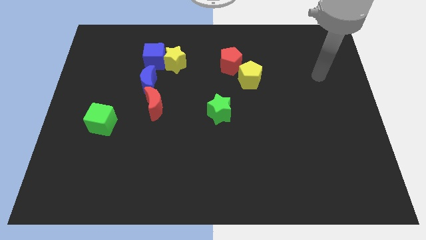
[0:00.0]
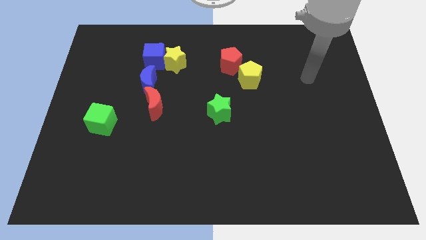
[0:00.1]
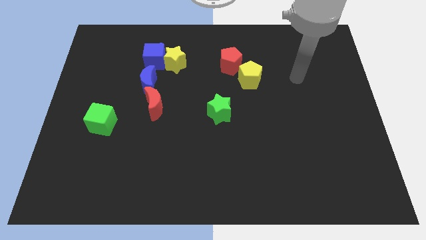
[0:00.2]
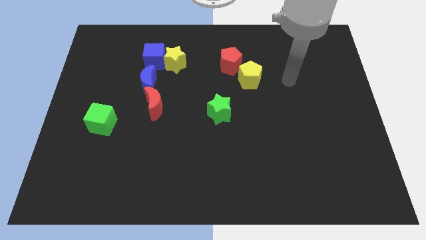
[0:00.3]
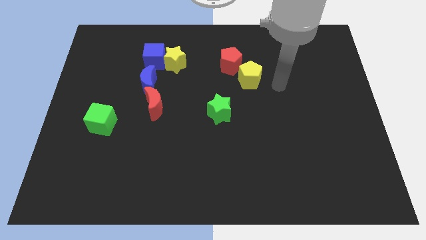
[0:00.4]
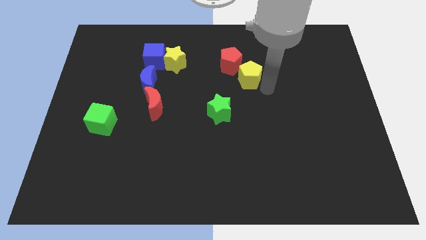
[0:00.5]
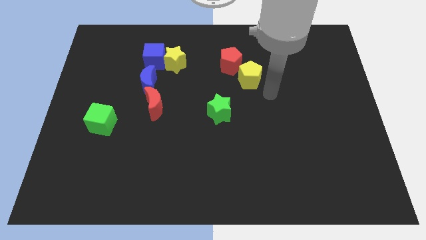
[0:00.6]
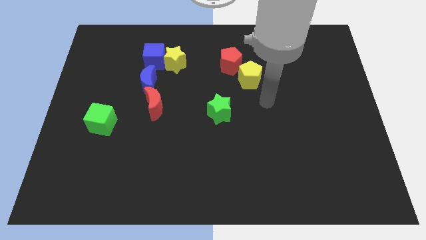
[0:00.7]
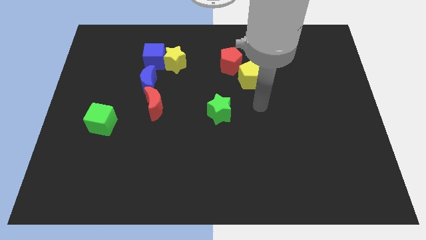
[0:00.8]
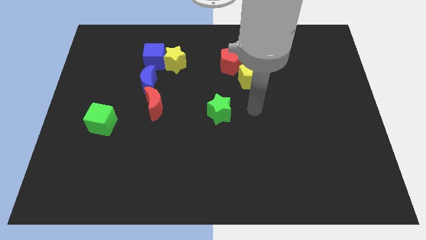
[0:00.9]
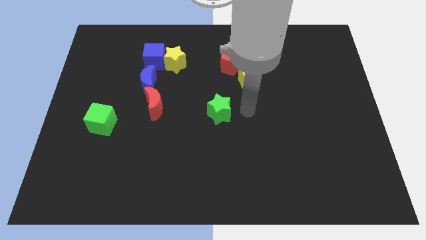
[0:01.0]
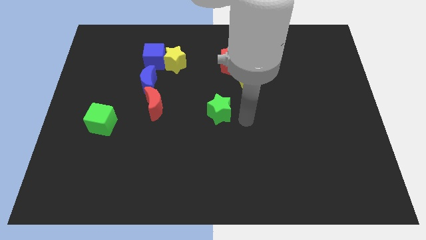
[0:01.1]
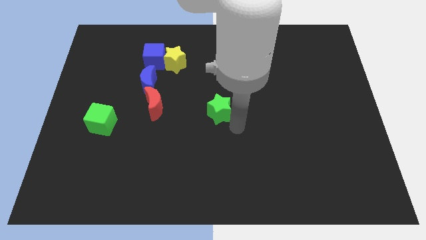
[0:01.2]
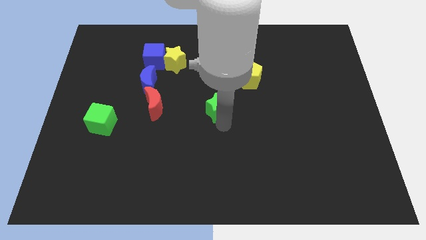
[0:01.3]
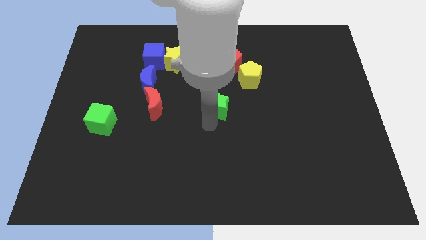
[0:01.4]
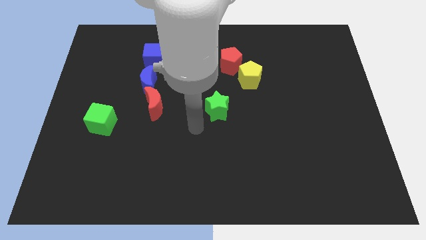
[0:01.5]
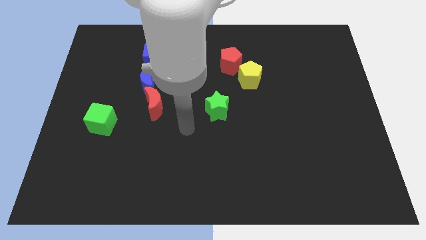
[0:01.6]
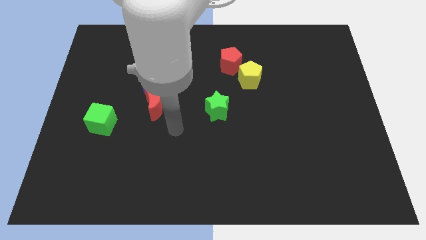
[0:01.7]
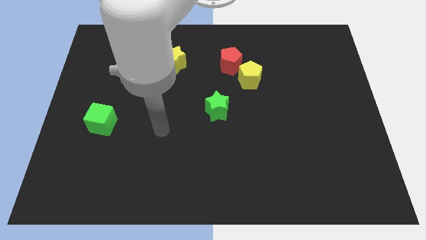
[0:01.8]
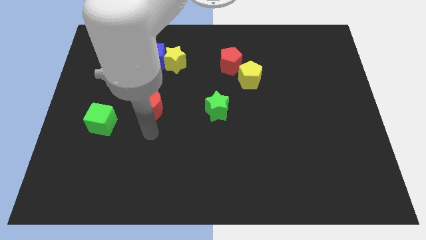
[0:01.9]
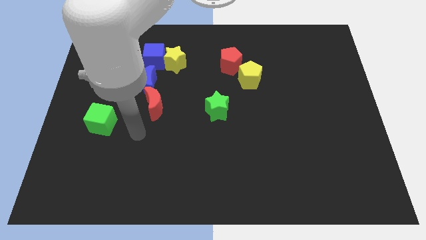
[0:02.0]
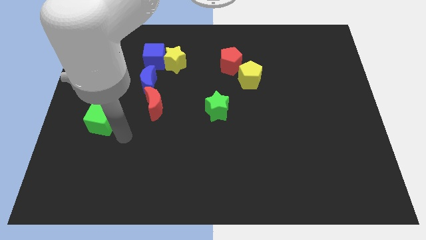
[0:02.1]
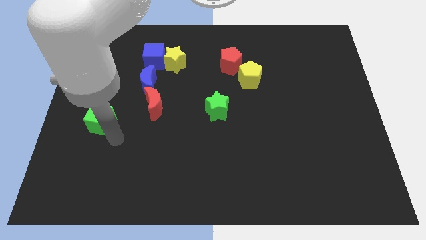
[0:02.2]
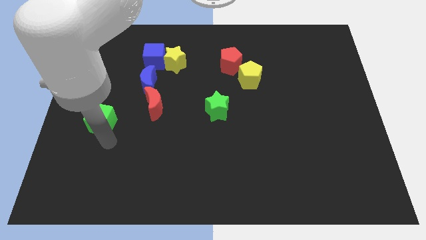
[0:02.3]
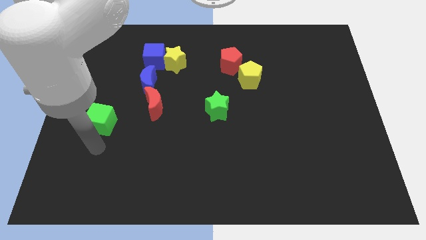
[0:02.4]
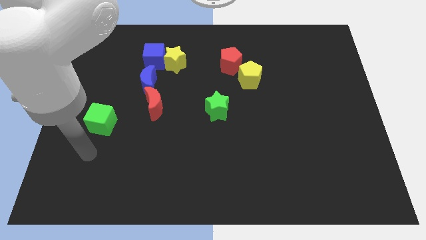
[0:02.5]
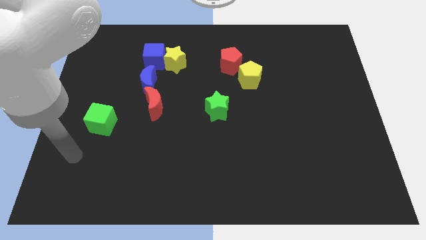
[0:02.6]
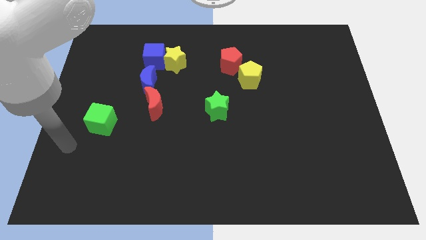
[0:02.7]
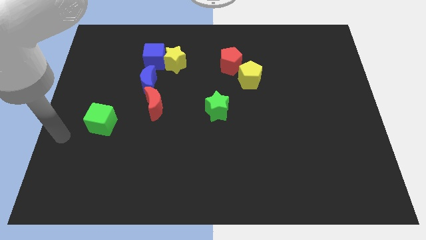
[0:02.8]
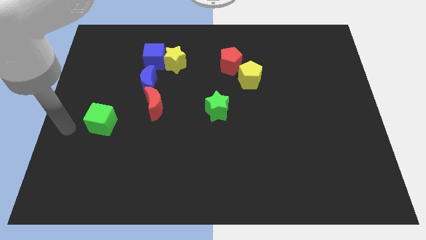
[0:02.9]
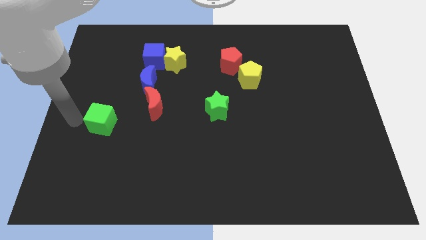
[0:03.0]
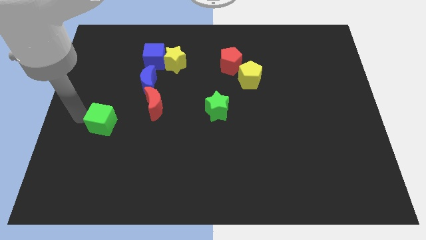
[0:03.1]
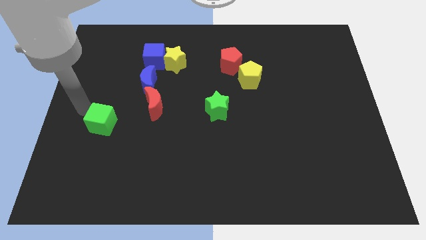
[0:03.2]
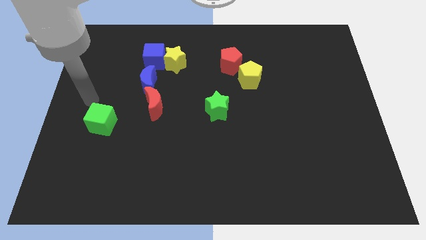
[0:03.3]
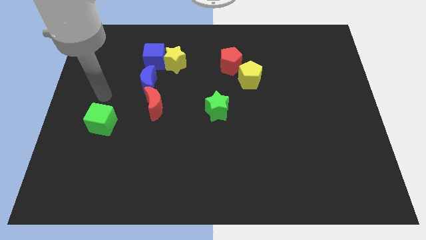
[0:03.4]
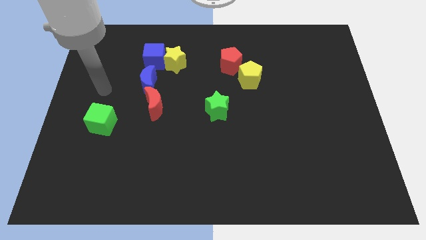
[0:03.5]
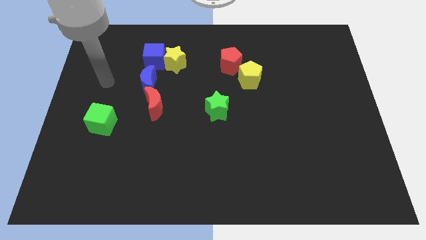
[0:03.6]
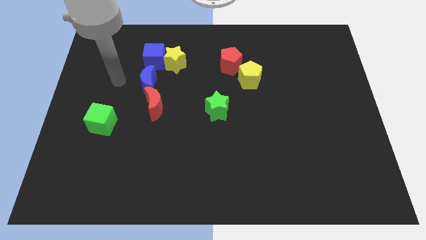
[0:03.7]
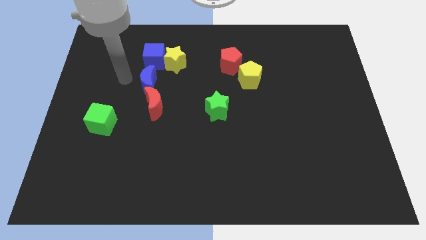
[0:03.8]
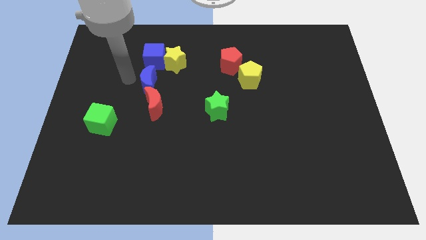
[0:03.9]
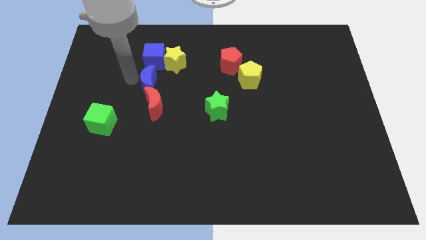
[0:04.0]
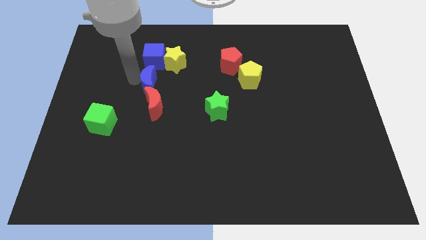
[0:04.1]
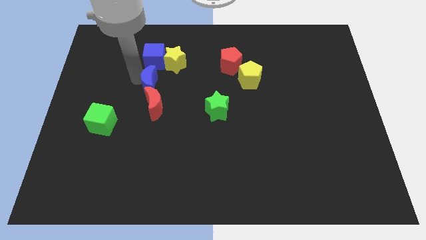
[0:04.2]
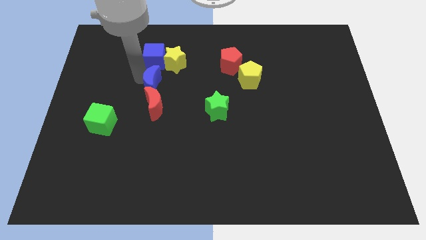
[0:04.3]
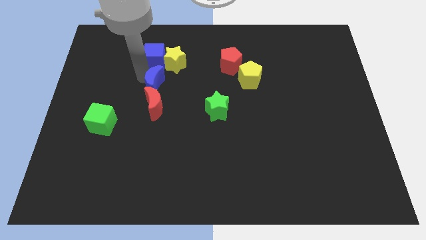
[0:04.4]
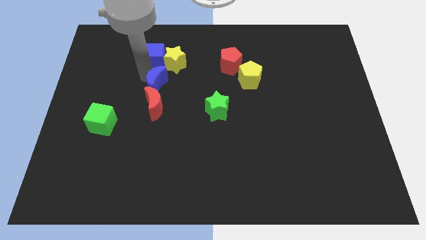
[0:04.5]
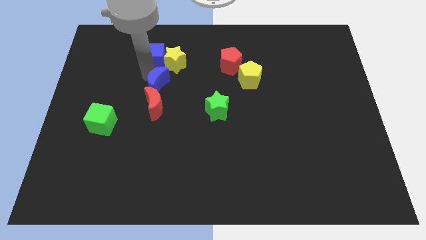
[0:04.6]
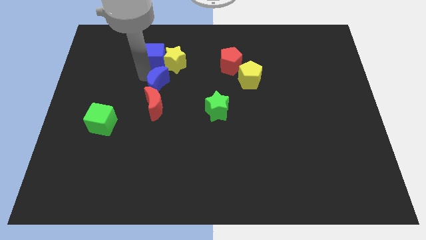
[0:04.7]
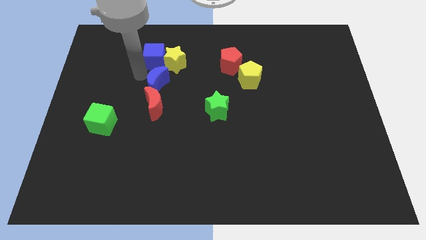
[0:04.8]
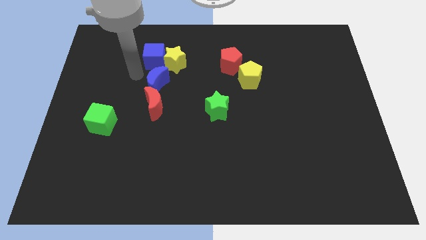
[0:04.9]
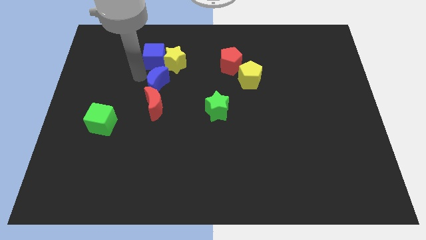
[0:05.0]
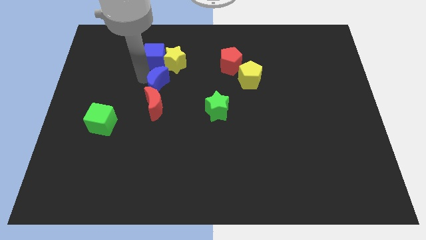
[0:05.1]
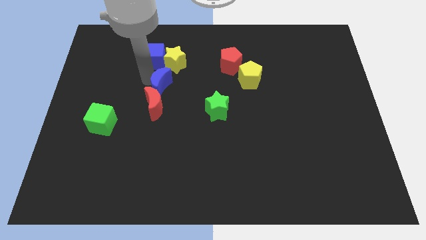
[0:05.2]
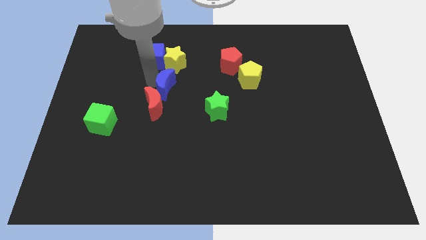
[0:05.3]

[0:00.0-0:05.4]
put the blue moon to the middle

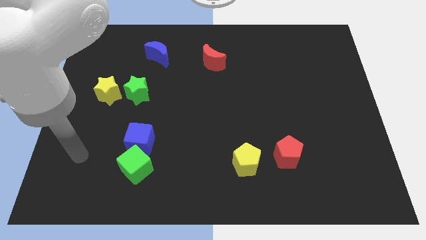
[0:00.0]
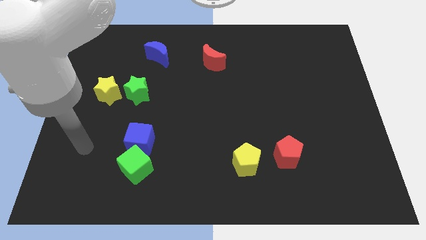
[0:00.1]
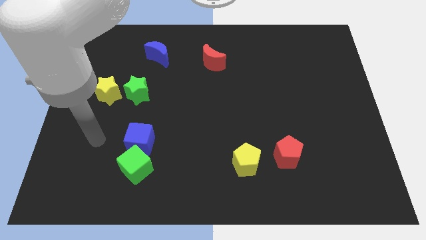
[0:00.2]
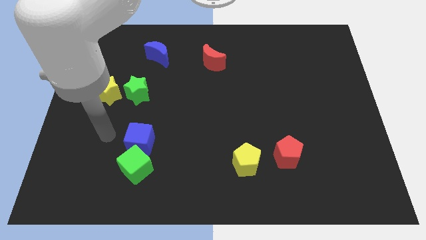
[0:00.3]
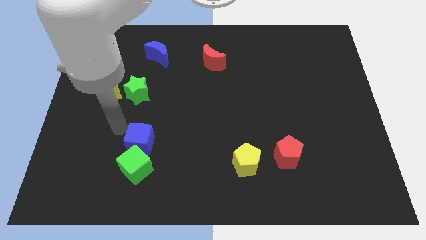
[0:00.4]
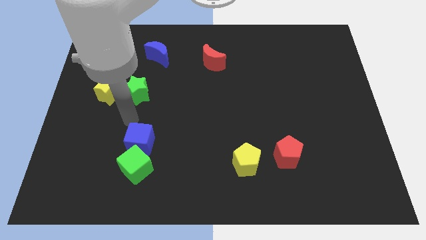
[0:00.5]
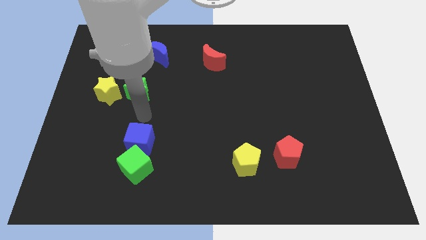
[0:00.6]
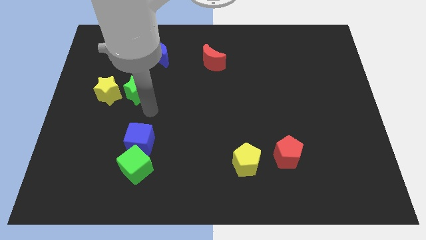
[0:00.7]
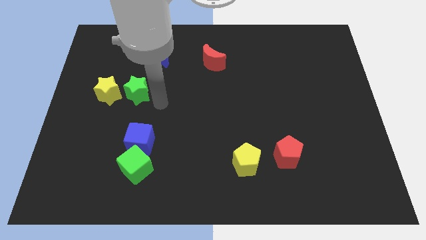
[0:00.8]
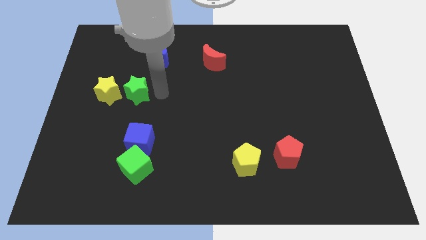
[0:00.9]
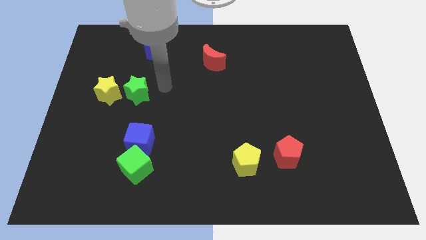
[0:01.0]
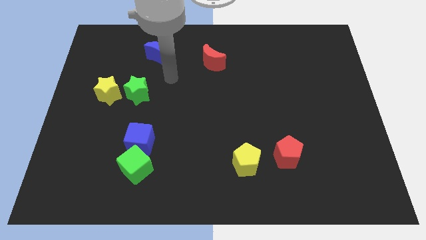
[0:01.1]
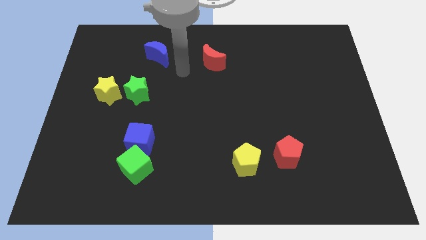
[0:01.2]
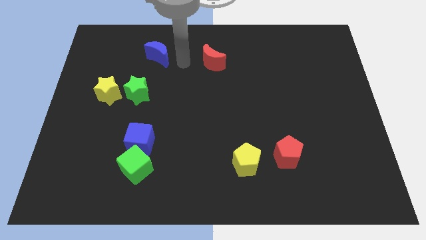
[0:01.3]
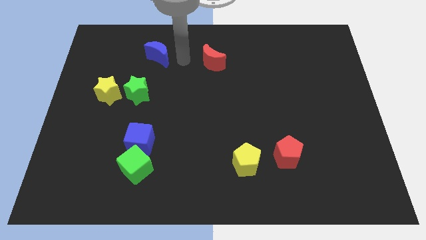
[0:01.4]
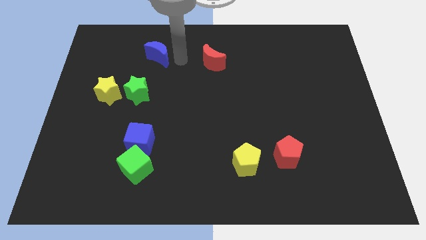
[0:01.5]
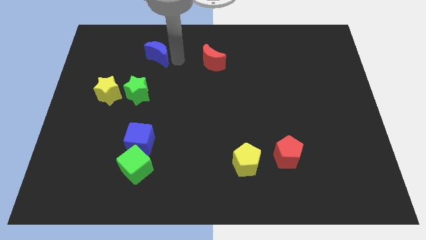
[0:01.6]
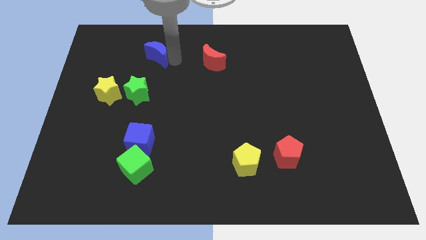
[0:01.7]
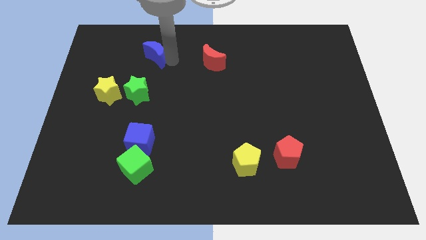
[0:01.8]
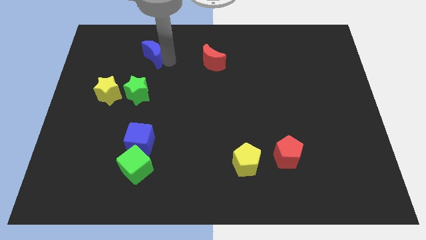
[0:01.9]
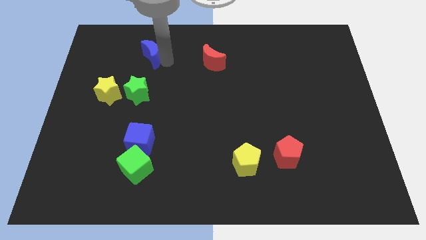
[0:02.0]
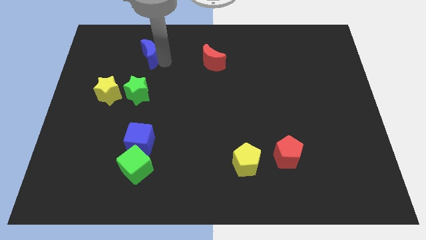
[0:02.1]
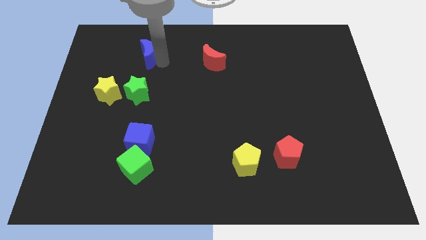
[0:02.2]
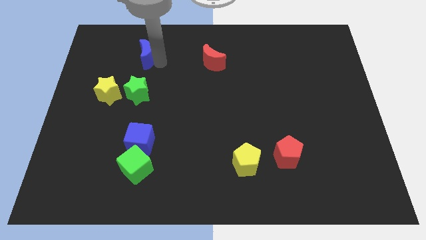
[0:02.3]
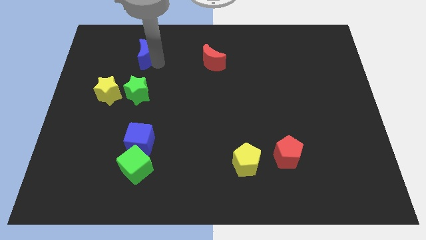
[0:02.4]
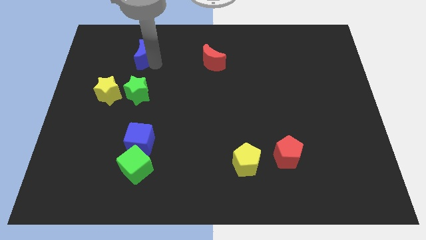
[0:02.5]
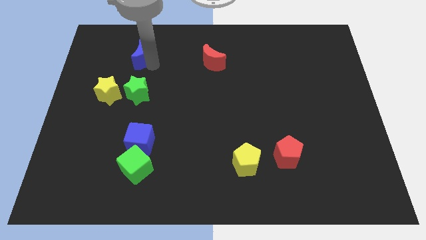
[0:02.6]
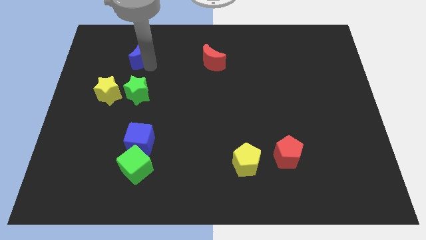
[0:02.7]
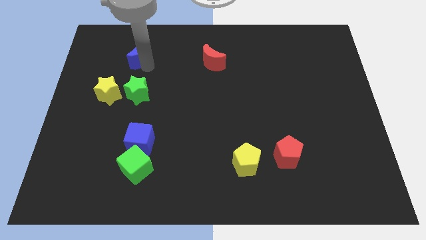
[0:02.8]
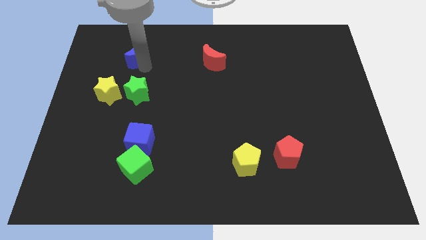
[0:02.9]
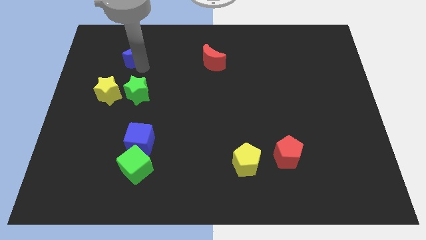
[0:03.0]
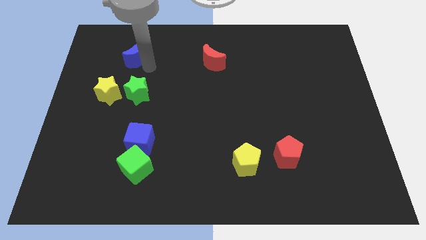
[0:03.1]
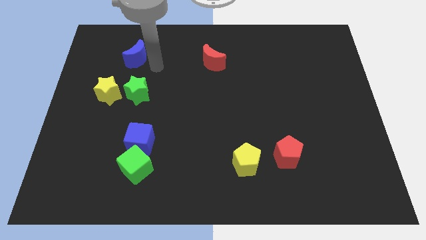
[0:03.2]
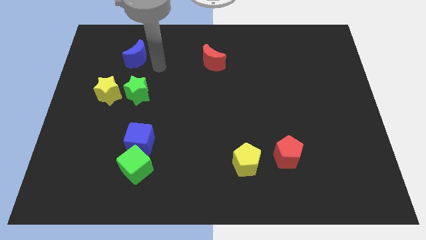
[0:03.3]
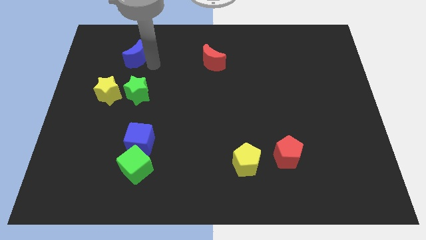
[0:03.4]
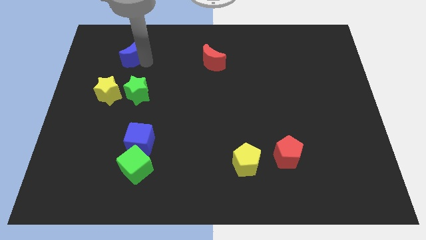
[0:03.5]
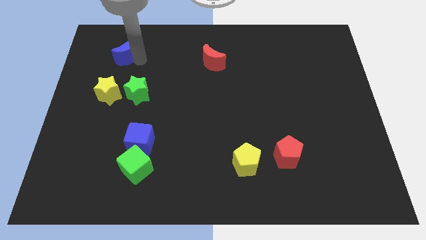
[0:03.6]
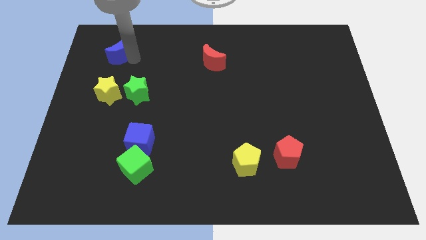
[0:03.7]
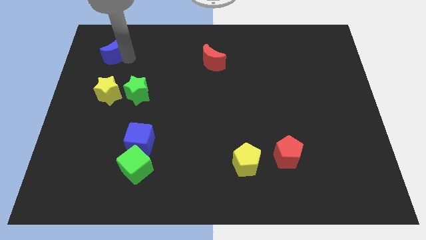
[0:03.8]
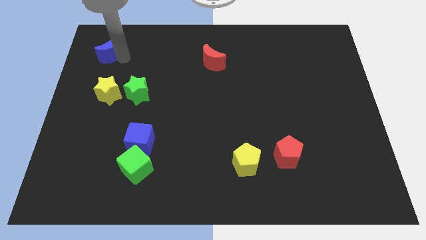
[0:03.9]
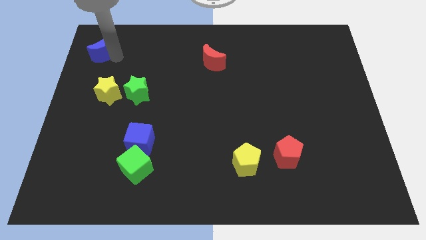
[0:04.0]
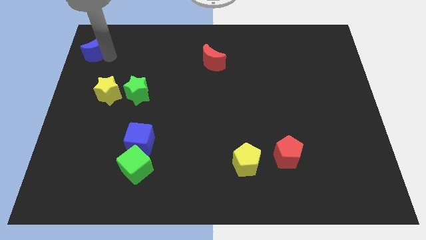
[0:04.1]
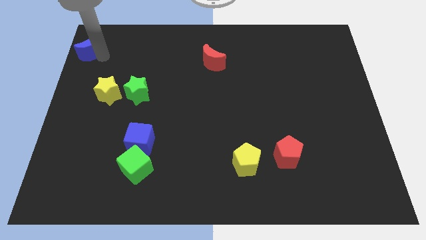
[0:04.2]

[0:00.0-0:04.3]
slide the blue moon to the top left corner
